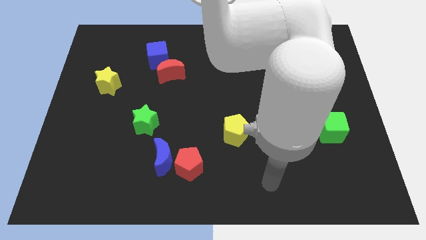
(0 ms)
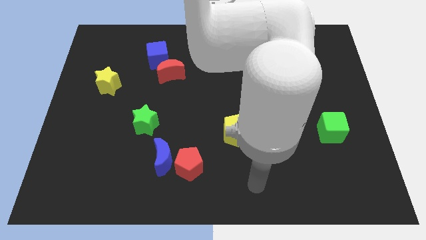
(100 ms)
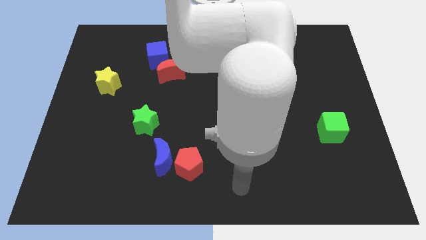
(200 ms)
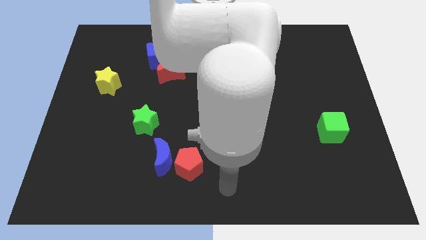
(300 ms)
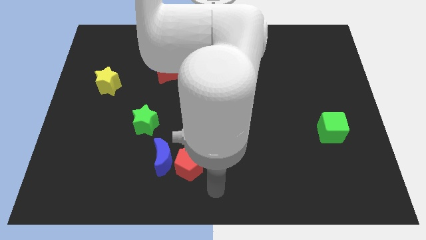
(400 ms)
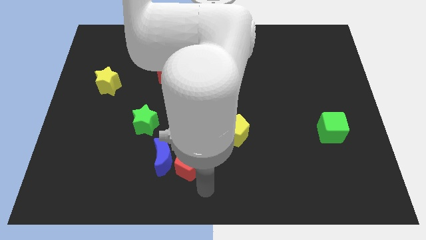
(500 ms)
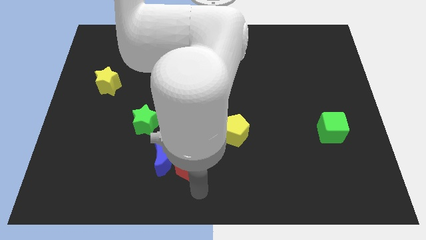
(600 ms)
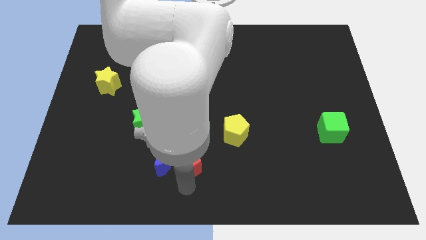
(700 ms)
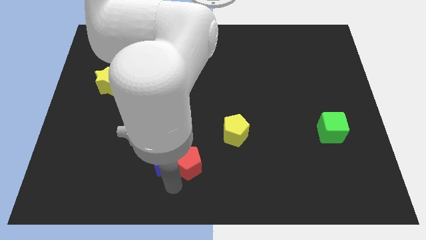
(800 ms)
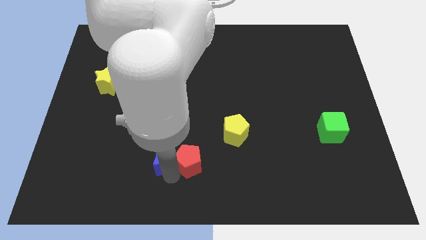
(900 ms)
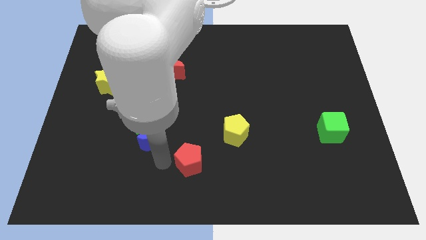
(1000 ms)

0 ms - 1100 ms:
move the red pentagon away from the blue moon

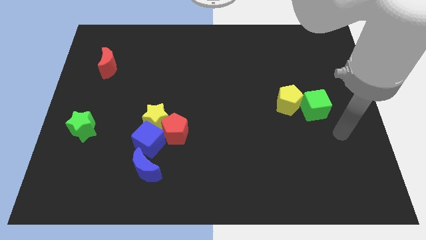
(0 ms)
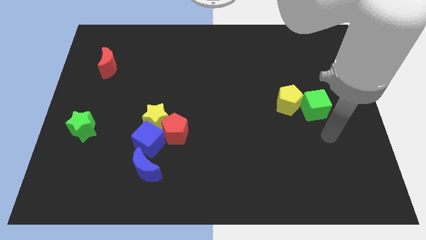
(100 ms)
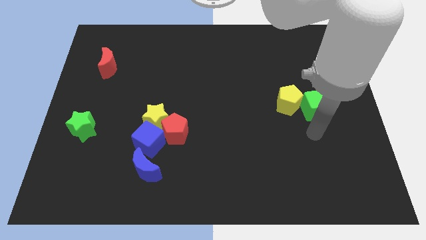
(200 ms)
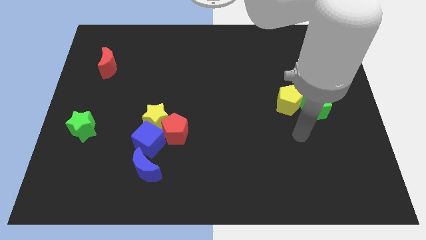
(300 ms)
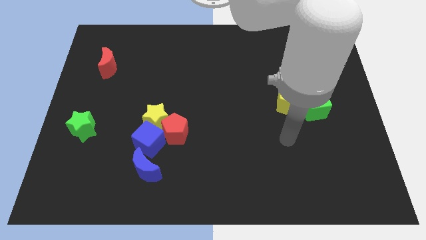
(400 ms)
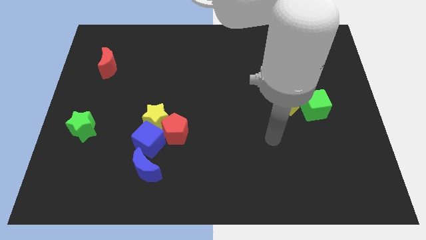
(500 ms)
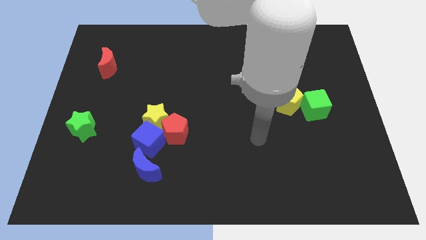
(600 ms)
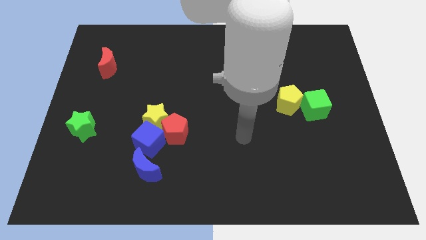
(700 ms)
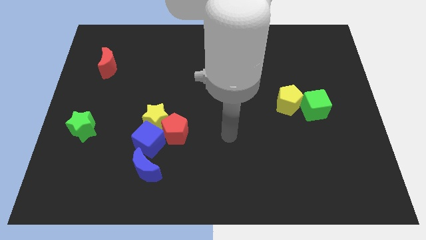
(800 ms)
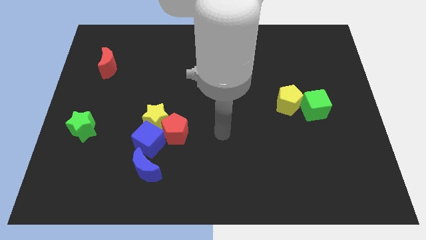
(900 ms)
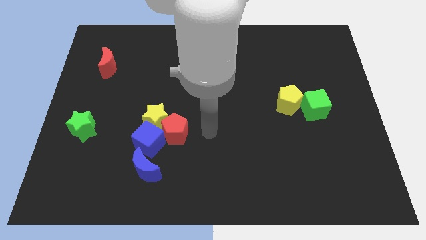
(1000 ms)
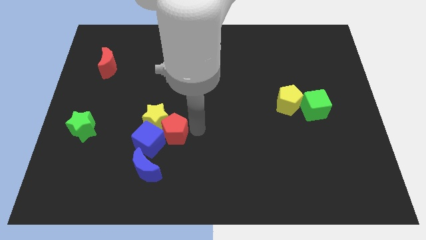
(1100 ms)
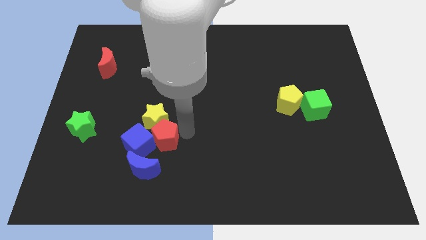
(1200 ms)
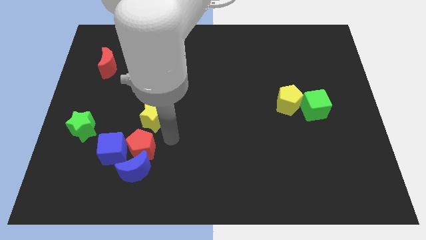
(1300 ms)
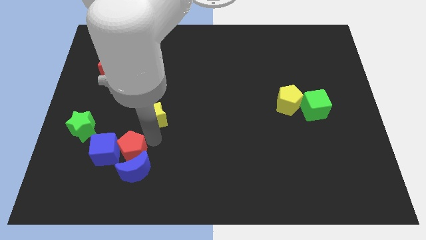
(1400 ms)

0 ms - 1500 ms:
separate the yellow star from the red pentagon and blue cube

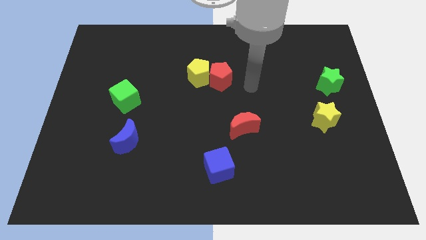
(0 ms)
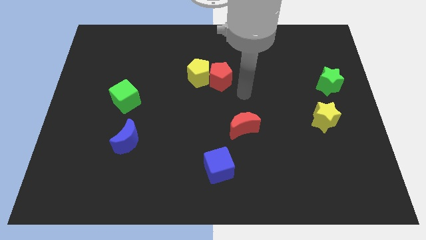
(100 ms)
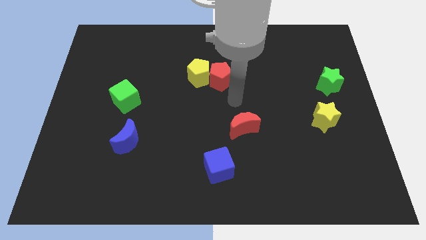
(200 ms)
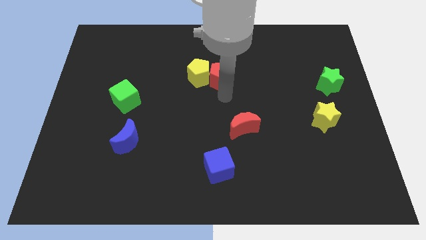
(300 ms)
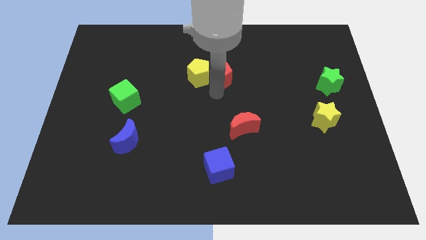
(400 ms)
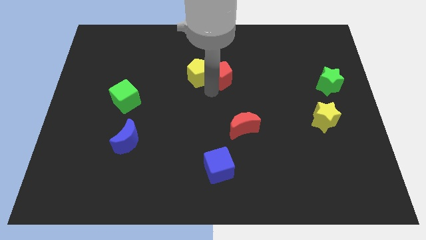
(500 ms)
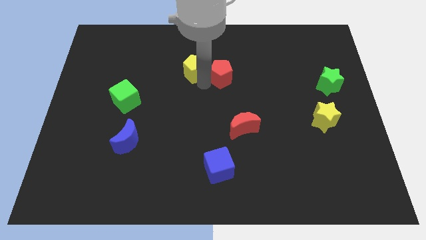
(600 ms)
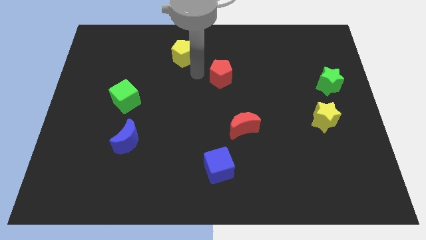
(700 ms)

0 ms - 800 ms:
pull the red pentagon apart from the yellow pentagon

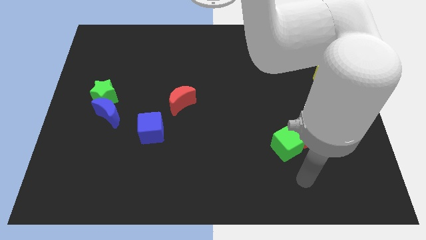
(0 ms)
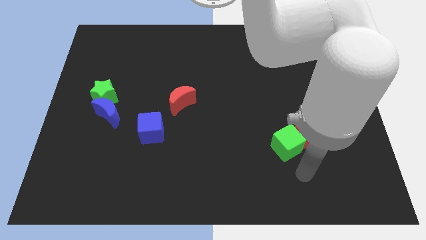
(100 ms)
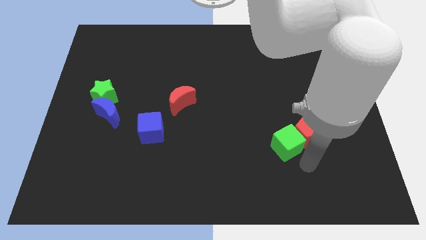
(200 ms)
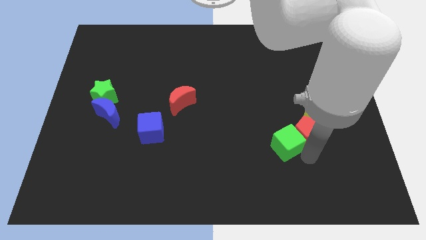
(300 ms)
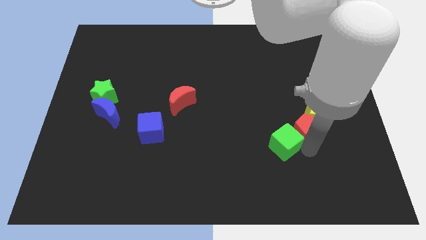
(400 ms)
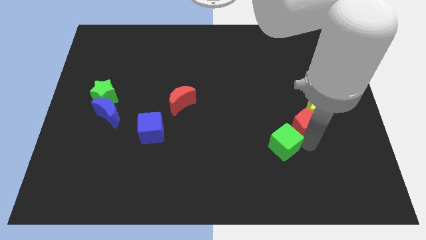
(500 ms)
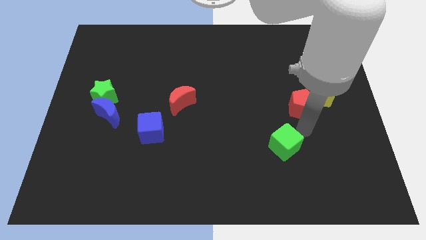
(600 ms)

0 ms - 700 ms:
move the green cube away from the red pentagon

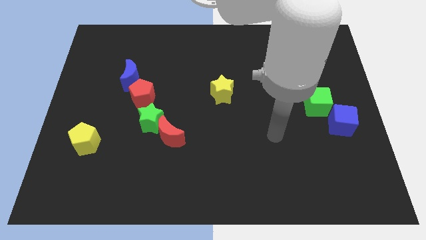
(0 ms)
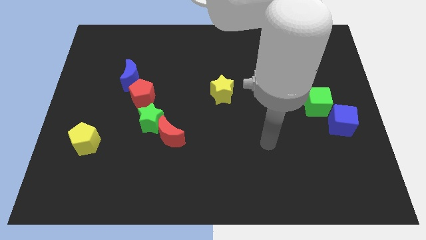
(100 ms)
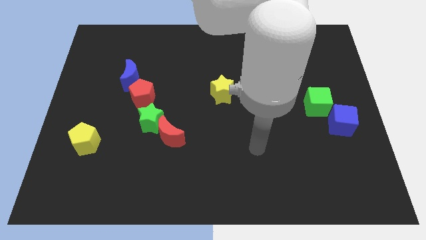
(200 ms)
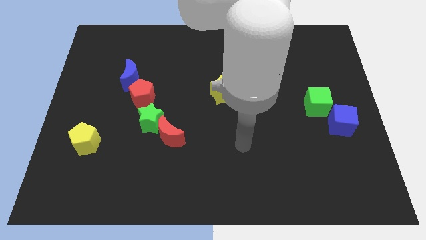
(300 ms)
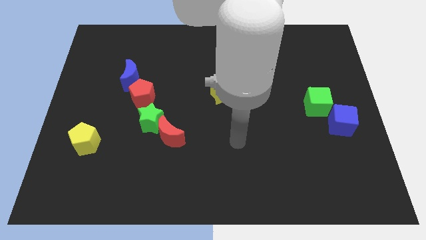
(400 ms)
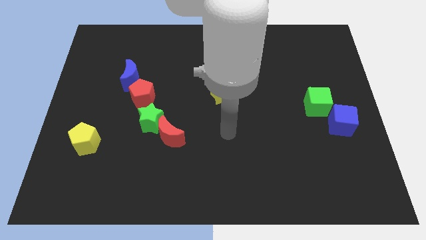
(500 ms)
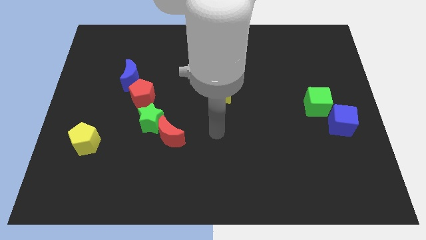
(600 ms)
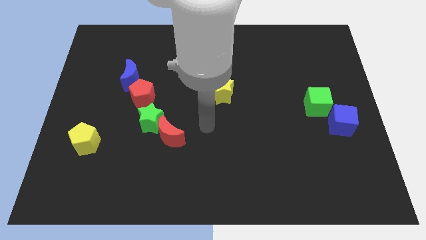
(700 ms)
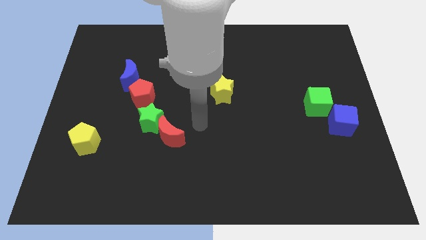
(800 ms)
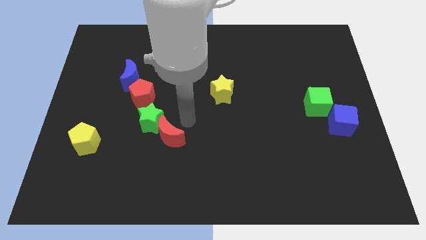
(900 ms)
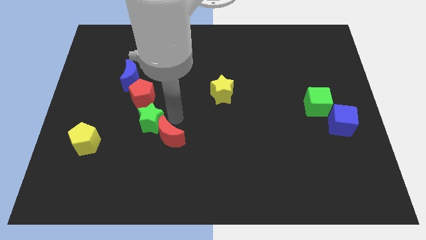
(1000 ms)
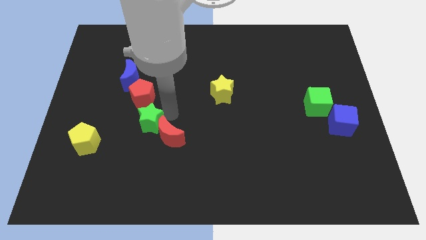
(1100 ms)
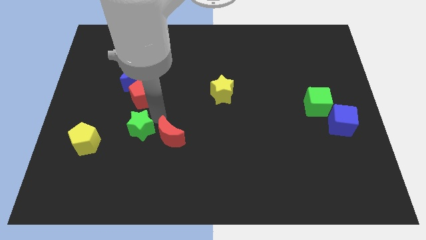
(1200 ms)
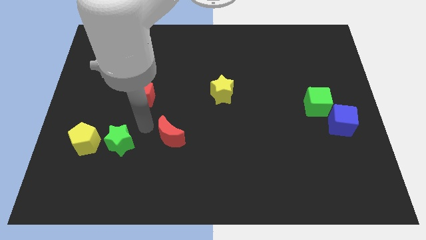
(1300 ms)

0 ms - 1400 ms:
move the red moon away from the green star

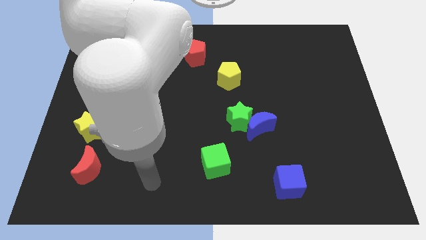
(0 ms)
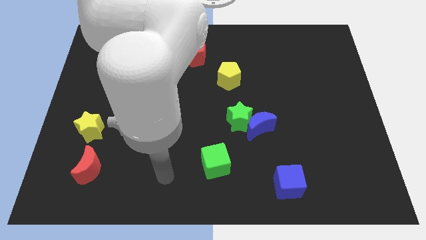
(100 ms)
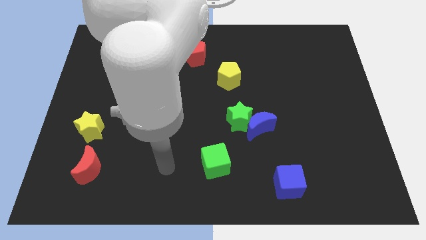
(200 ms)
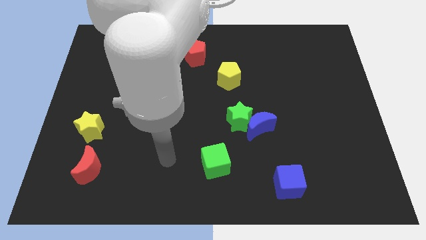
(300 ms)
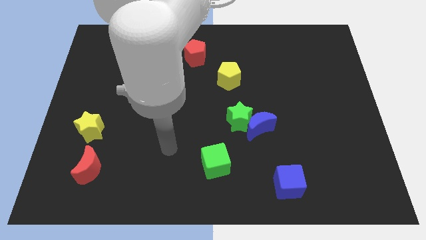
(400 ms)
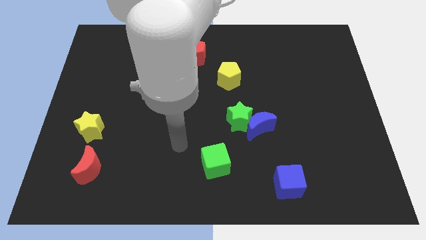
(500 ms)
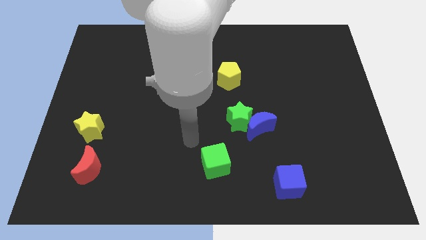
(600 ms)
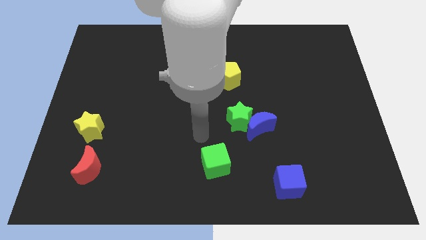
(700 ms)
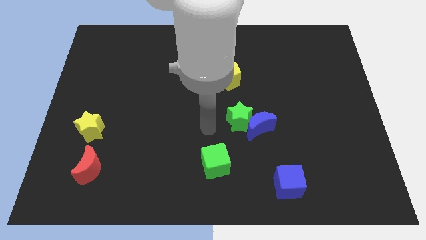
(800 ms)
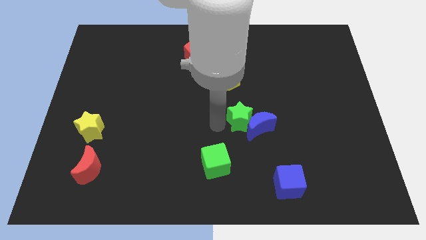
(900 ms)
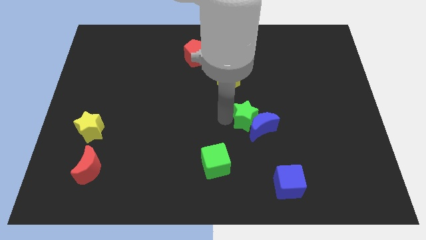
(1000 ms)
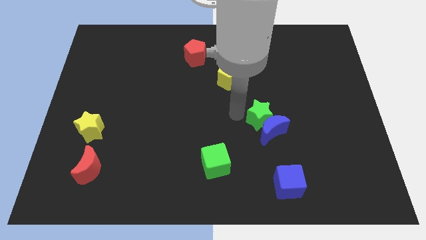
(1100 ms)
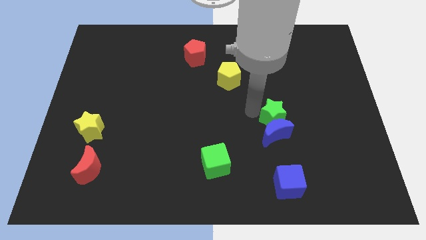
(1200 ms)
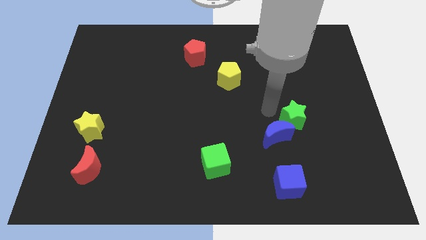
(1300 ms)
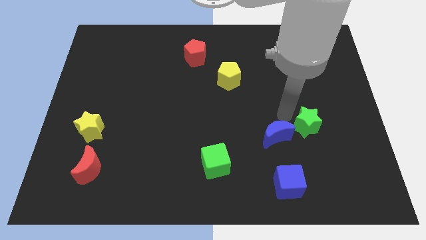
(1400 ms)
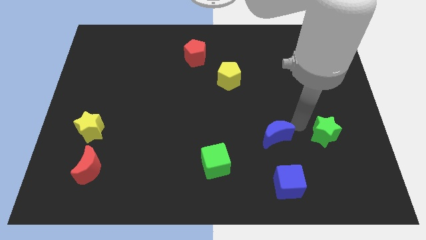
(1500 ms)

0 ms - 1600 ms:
pull the blue moon apart from the green star

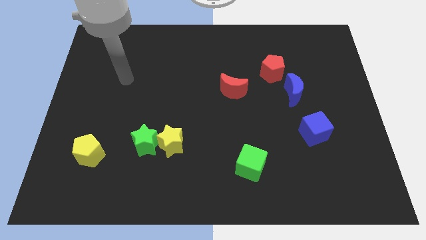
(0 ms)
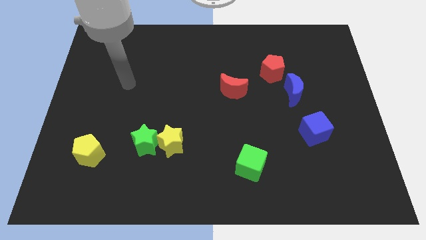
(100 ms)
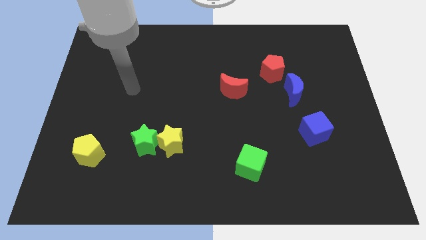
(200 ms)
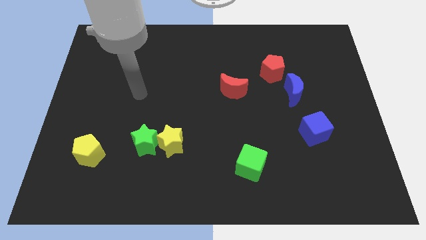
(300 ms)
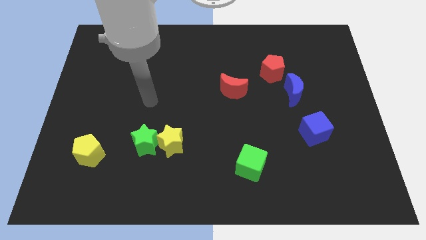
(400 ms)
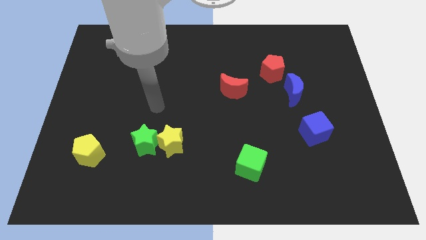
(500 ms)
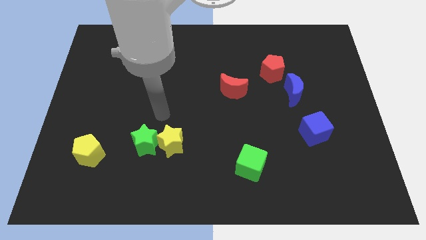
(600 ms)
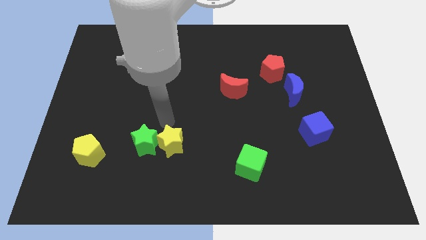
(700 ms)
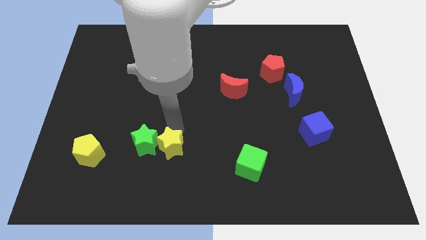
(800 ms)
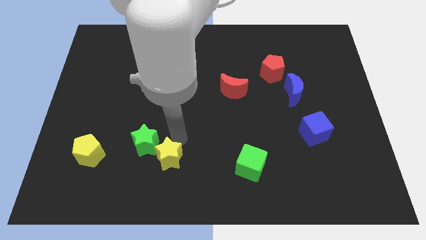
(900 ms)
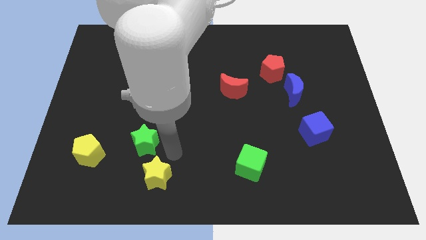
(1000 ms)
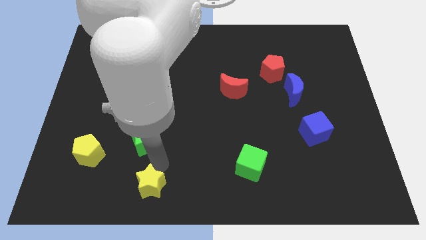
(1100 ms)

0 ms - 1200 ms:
move the green star away from the yellow star

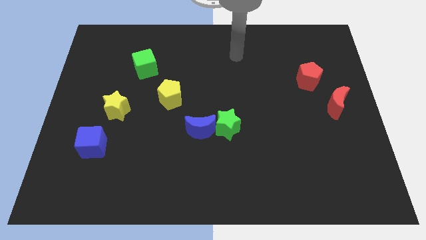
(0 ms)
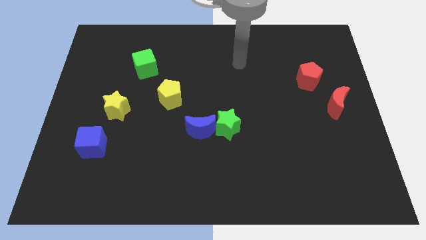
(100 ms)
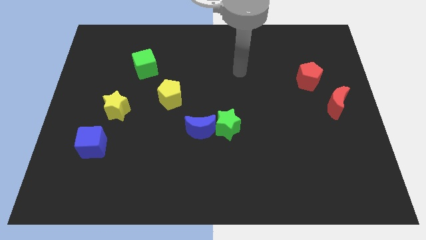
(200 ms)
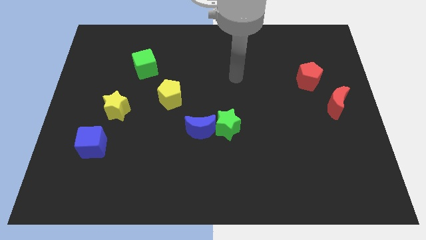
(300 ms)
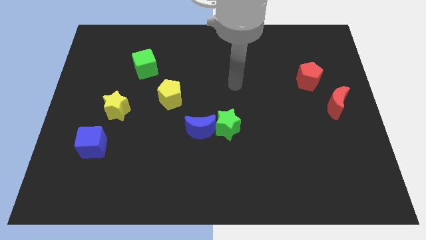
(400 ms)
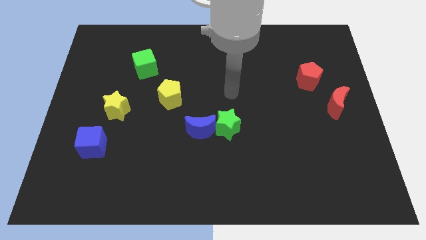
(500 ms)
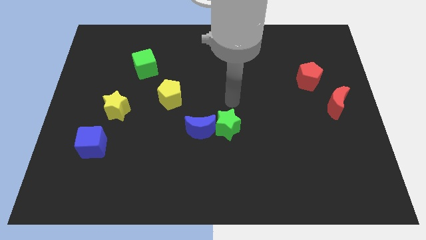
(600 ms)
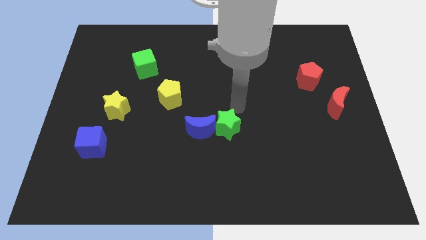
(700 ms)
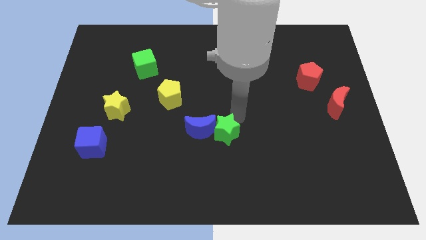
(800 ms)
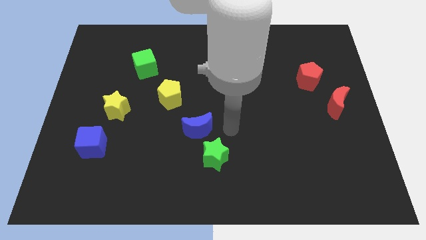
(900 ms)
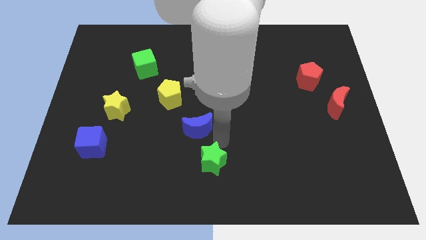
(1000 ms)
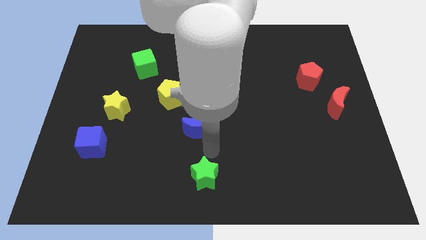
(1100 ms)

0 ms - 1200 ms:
move the blue moon away from the green star
